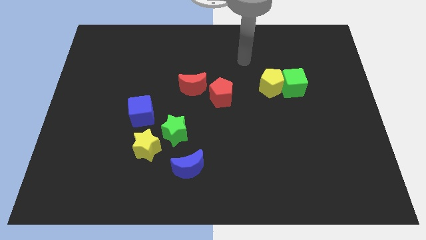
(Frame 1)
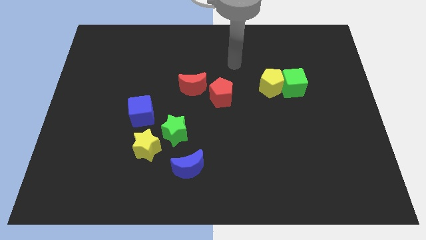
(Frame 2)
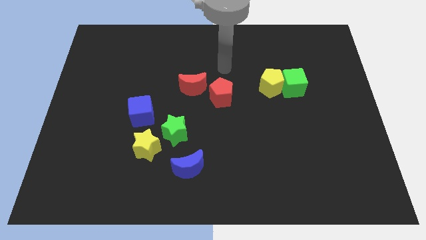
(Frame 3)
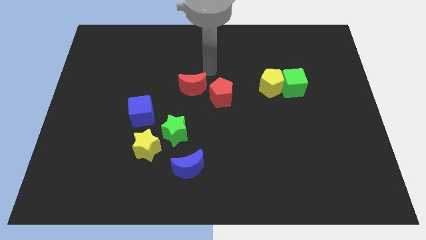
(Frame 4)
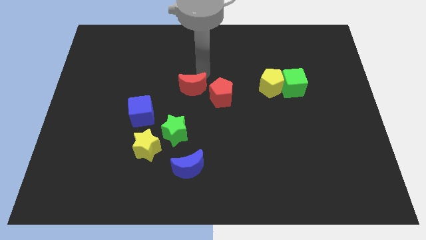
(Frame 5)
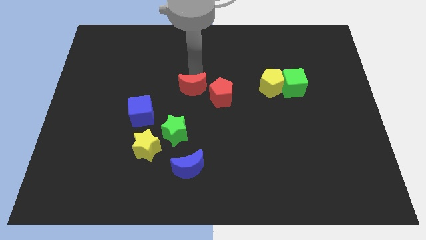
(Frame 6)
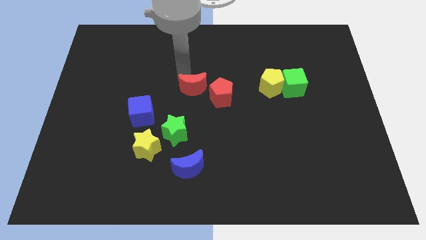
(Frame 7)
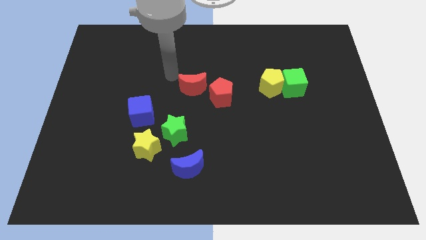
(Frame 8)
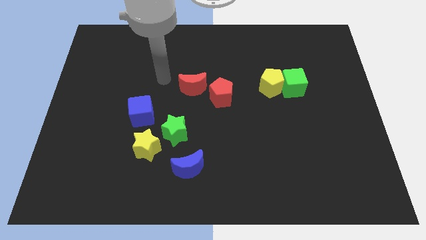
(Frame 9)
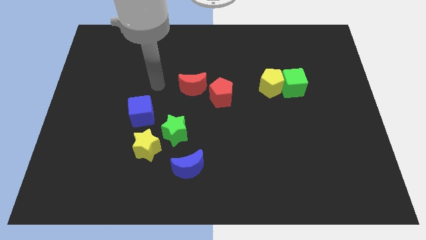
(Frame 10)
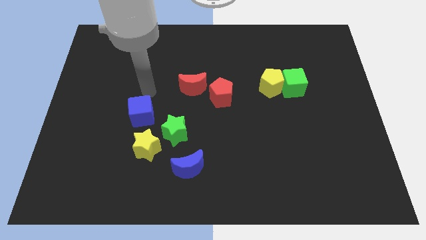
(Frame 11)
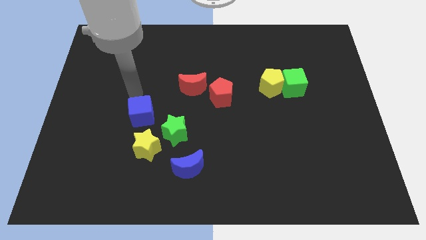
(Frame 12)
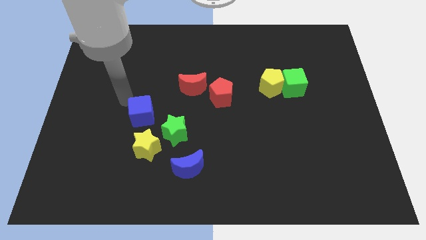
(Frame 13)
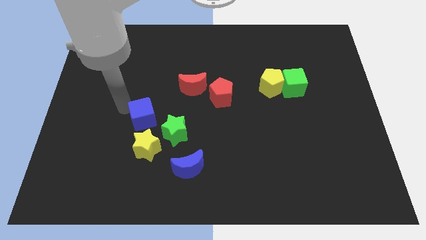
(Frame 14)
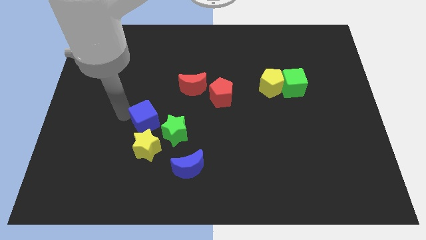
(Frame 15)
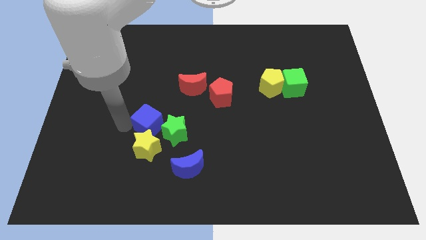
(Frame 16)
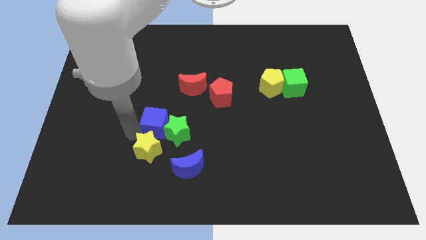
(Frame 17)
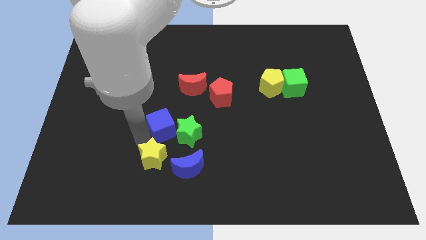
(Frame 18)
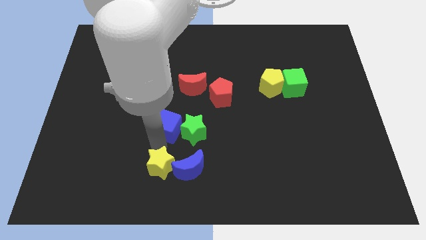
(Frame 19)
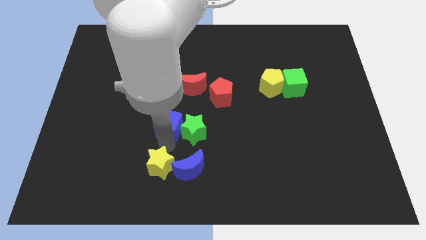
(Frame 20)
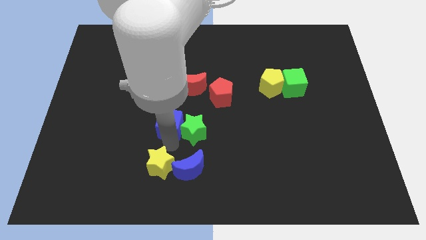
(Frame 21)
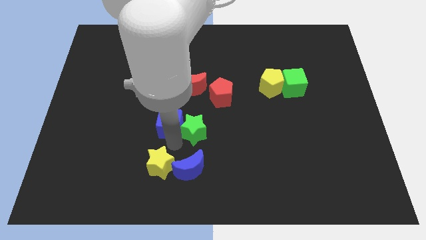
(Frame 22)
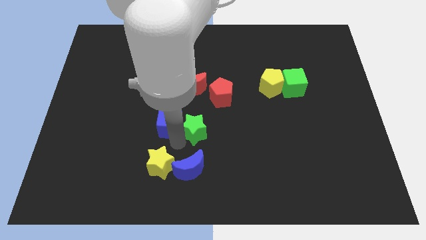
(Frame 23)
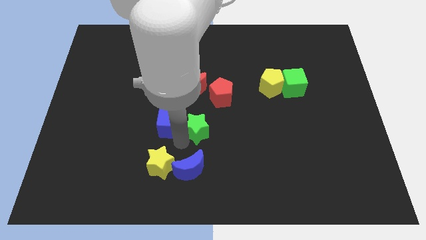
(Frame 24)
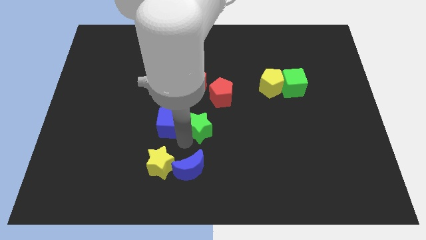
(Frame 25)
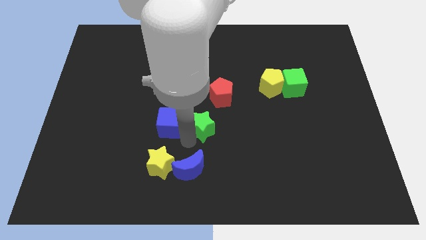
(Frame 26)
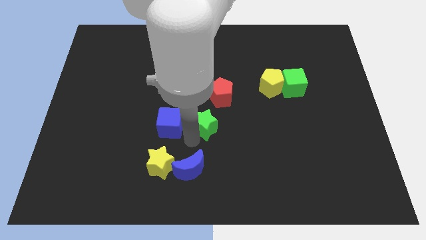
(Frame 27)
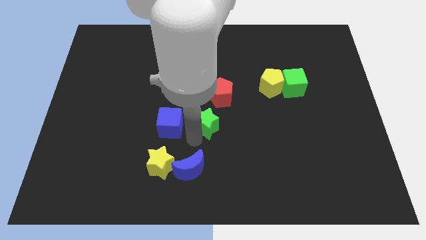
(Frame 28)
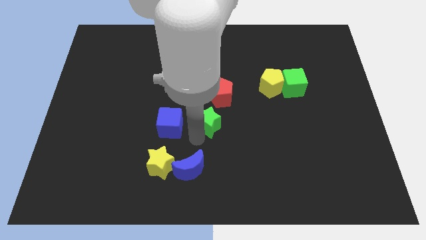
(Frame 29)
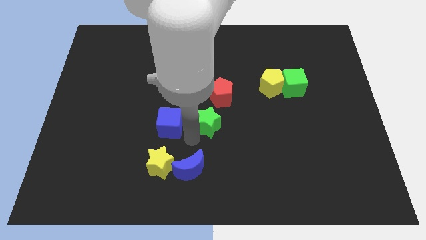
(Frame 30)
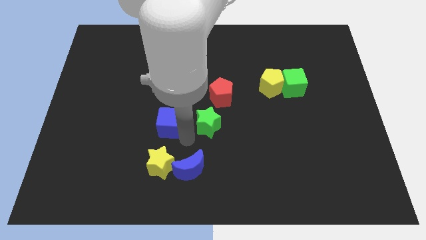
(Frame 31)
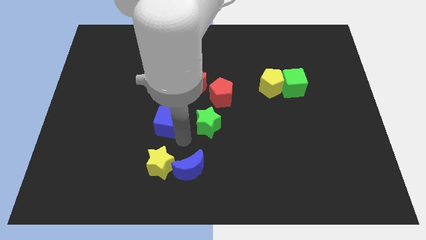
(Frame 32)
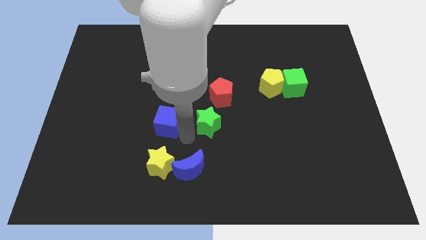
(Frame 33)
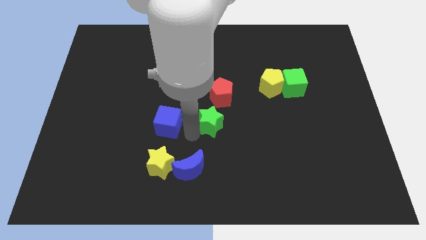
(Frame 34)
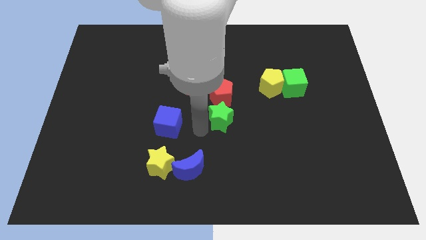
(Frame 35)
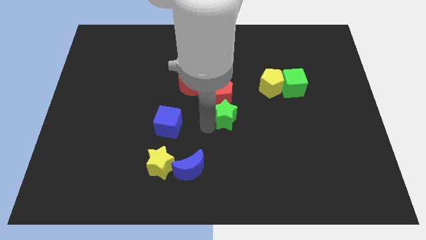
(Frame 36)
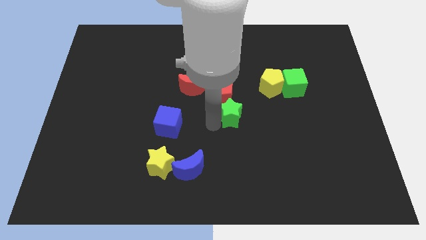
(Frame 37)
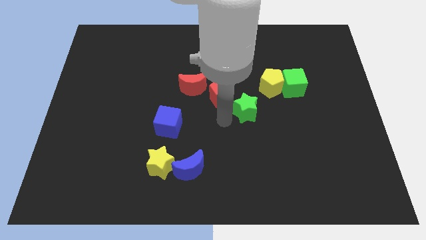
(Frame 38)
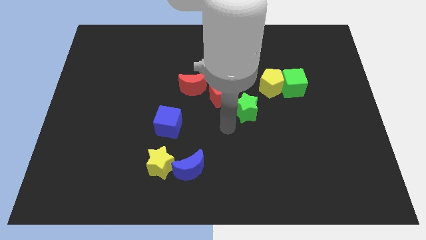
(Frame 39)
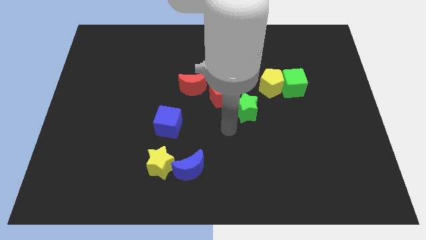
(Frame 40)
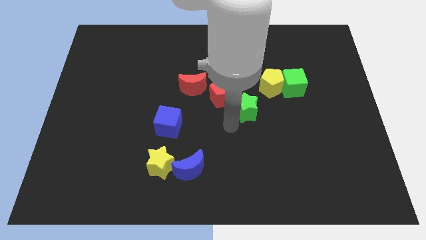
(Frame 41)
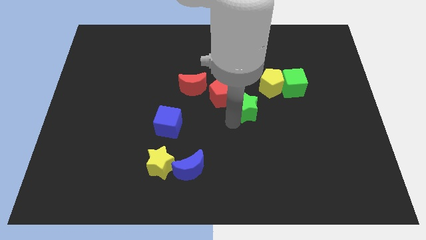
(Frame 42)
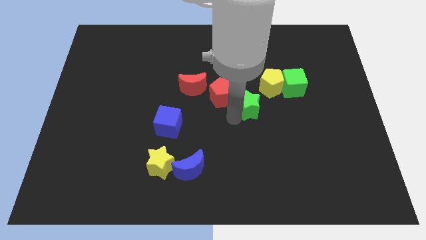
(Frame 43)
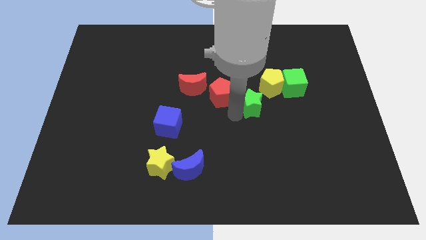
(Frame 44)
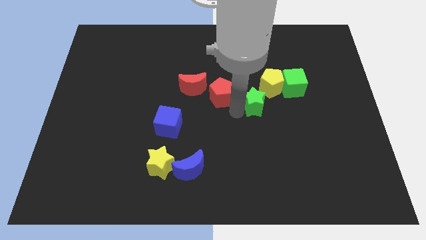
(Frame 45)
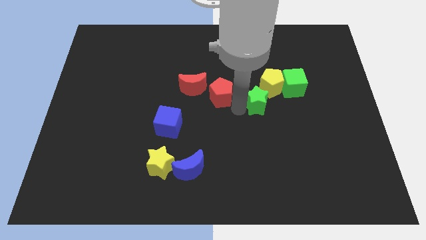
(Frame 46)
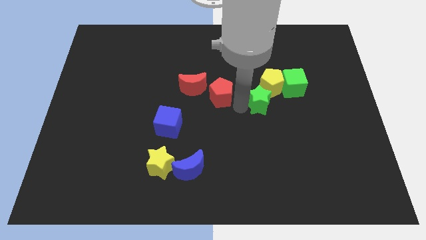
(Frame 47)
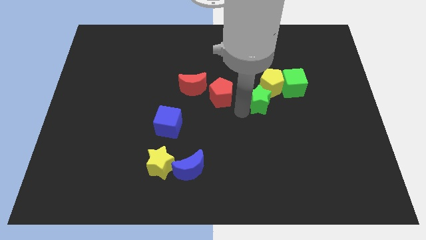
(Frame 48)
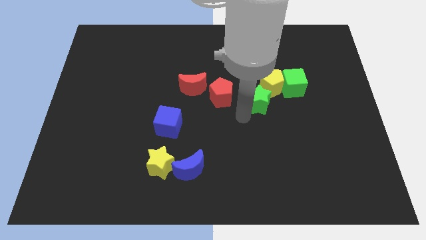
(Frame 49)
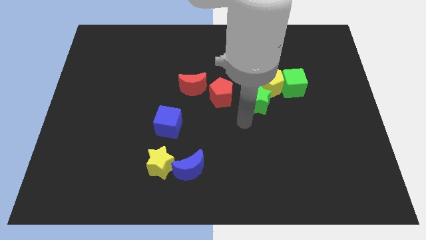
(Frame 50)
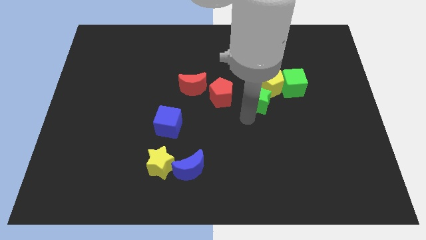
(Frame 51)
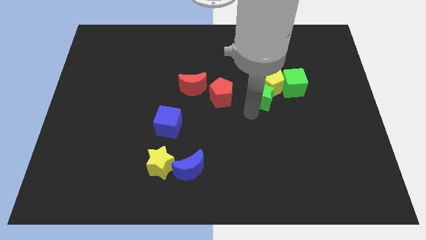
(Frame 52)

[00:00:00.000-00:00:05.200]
slide the green star close to the yellow pentagon

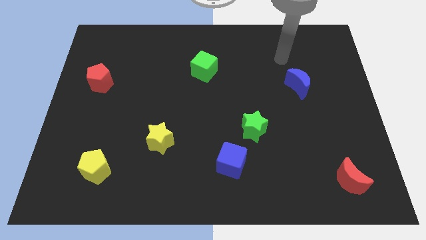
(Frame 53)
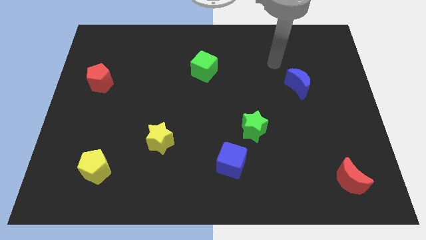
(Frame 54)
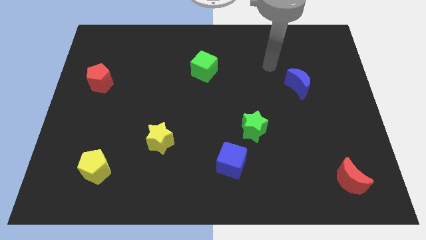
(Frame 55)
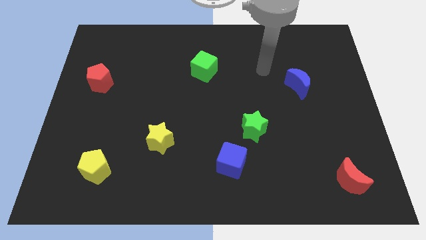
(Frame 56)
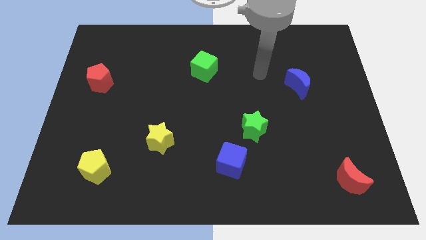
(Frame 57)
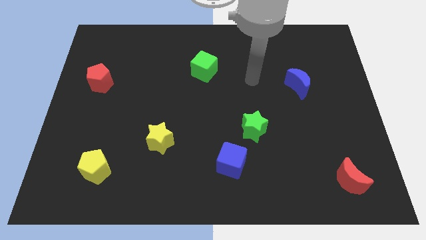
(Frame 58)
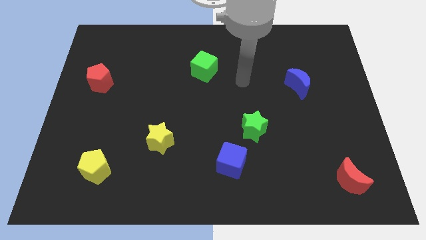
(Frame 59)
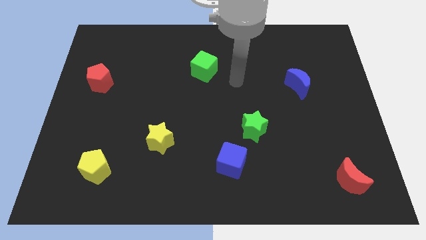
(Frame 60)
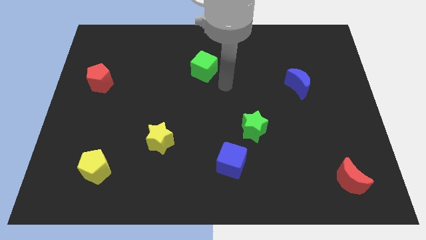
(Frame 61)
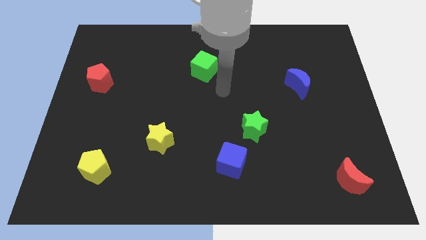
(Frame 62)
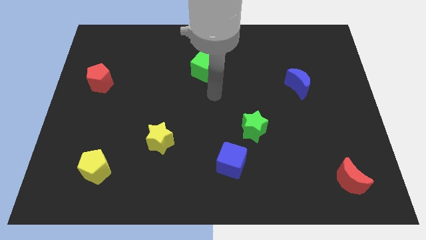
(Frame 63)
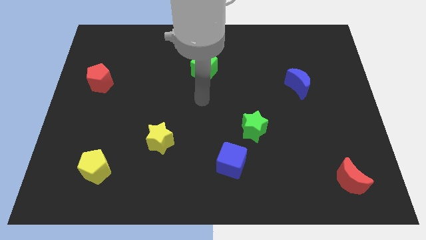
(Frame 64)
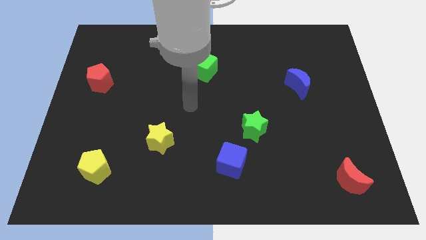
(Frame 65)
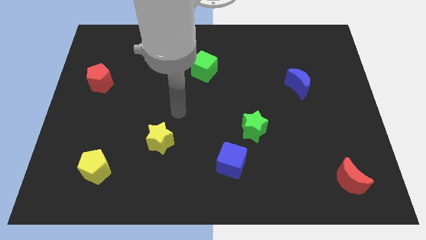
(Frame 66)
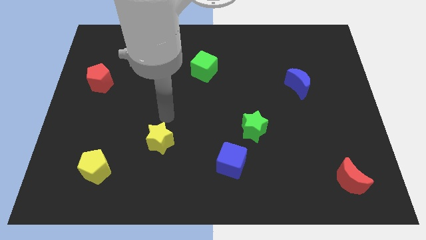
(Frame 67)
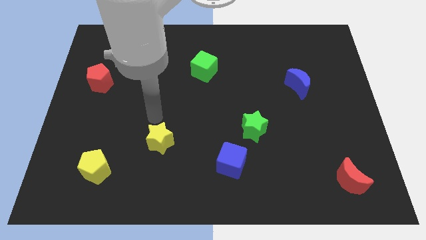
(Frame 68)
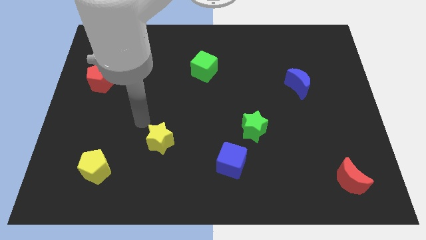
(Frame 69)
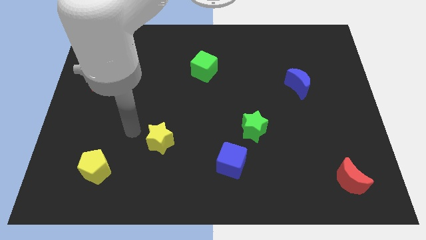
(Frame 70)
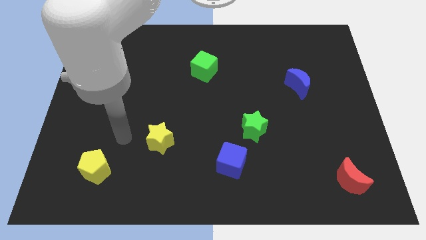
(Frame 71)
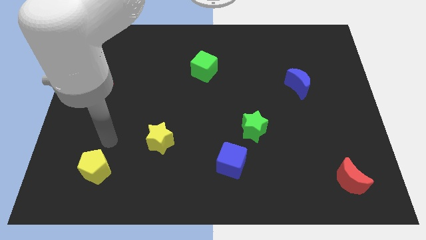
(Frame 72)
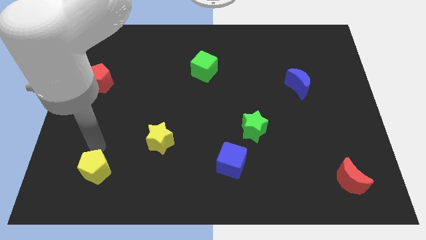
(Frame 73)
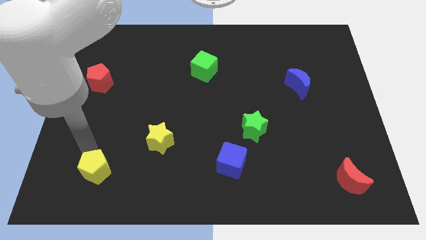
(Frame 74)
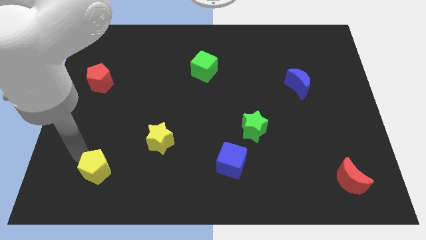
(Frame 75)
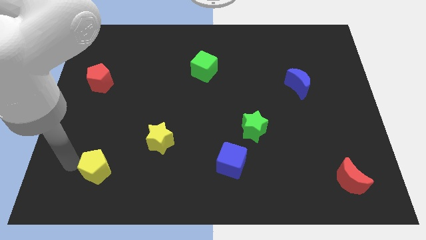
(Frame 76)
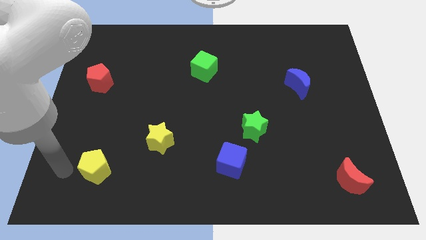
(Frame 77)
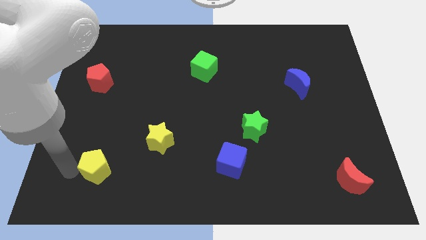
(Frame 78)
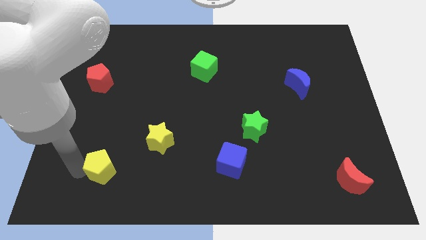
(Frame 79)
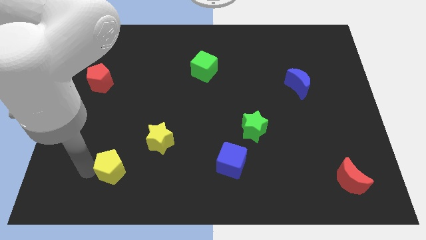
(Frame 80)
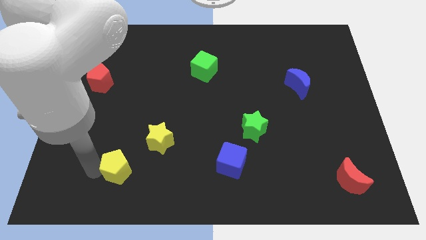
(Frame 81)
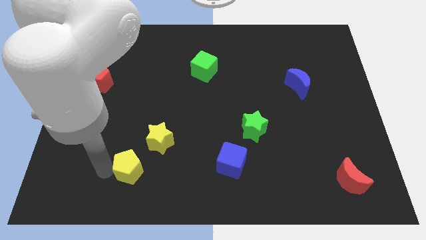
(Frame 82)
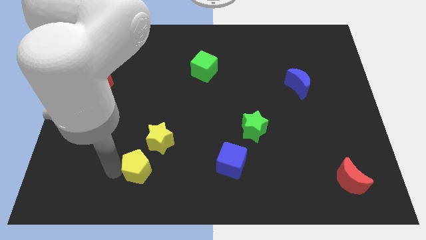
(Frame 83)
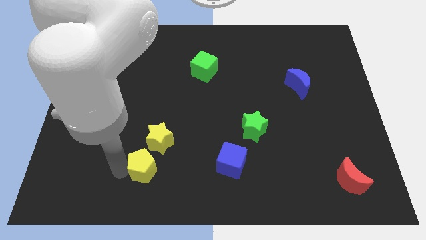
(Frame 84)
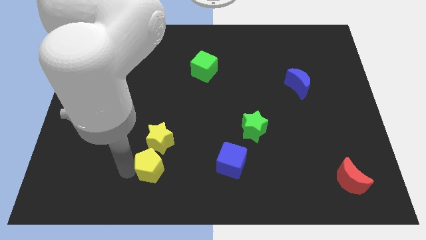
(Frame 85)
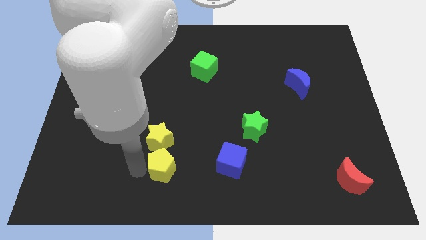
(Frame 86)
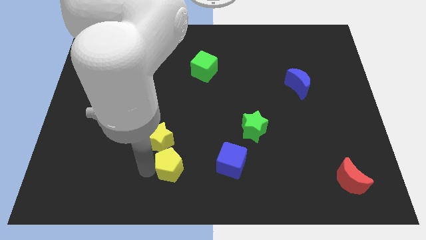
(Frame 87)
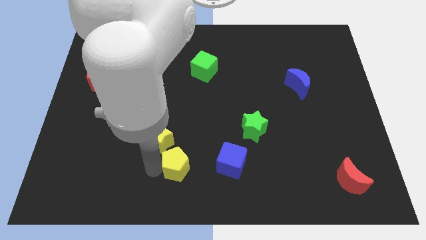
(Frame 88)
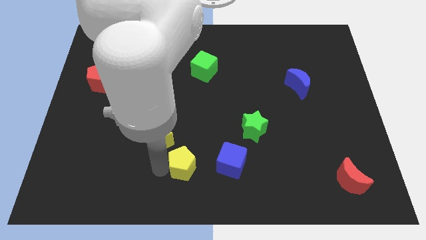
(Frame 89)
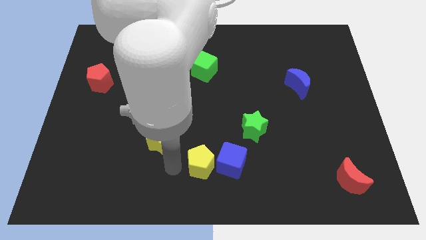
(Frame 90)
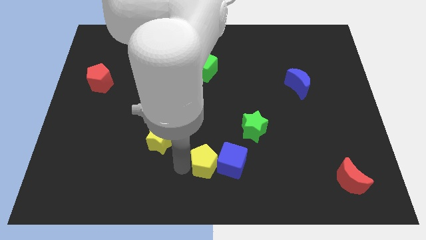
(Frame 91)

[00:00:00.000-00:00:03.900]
push the yellow pentagon close to the blue cube
